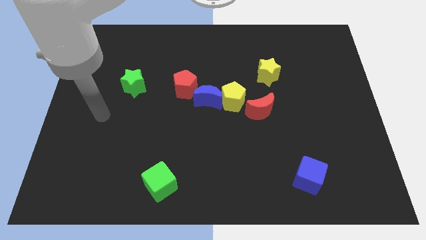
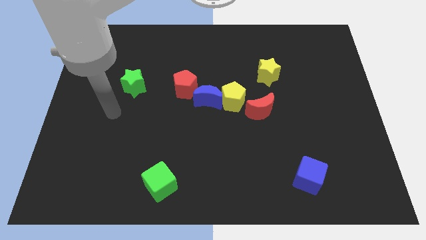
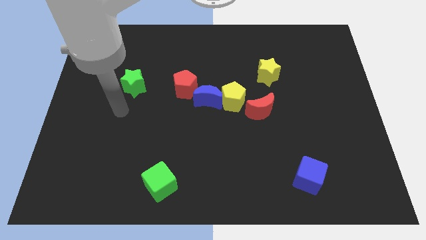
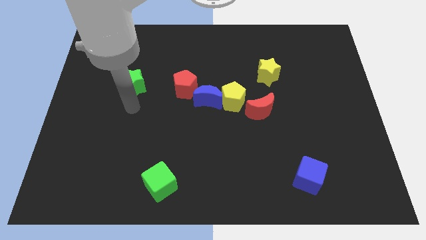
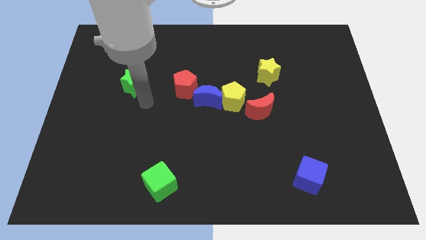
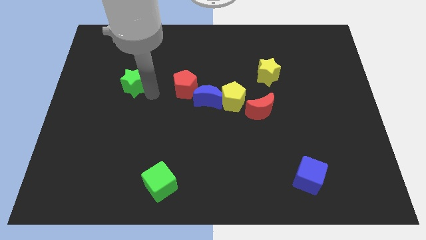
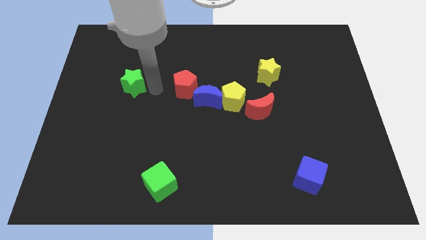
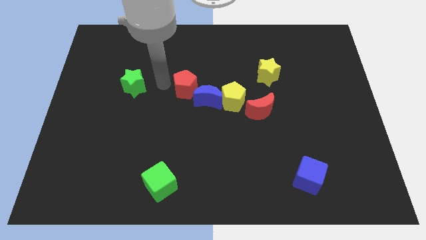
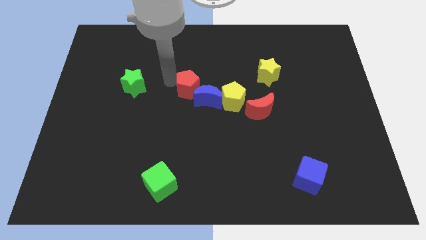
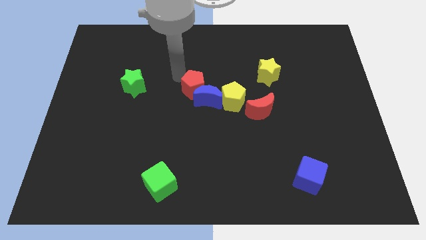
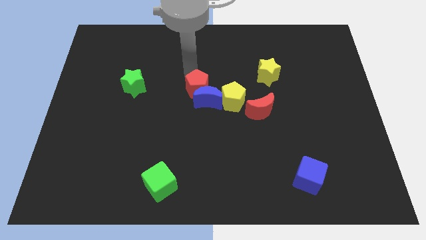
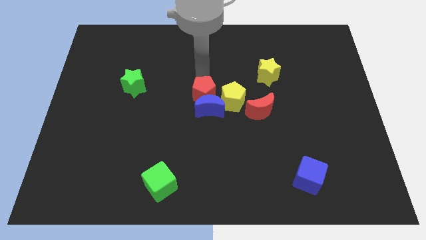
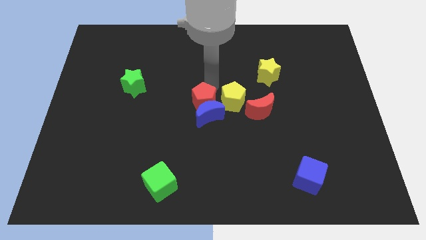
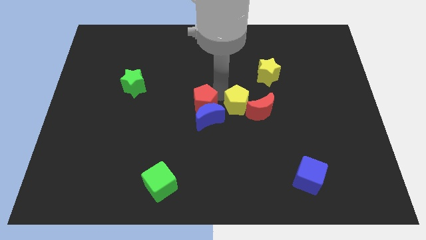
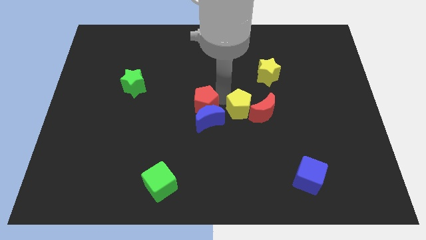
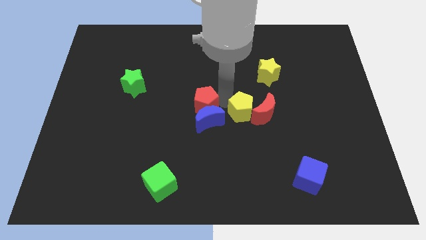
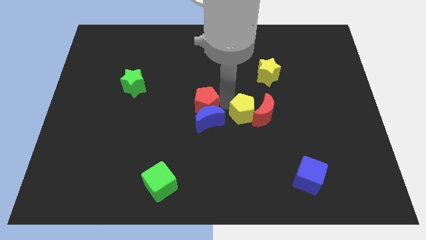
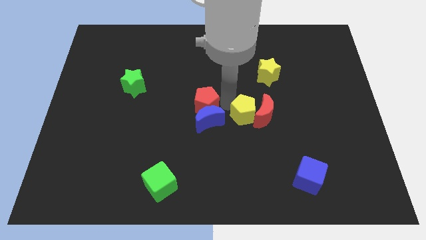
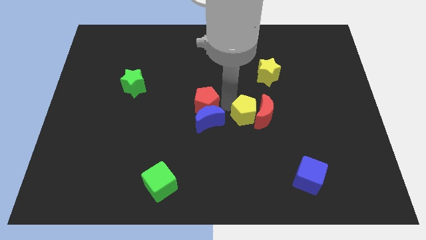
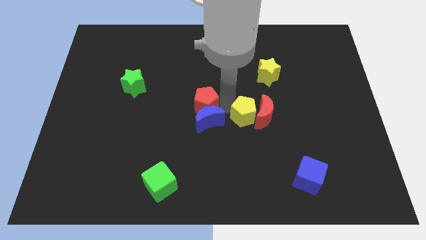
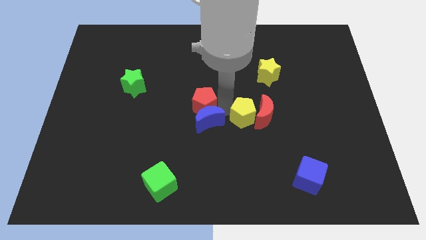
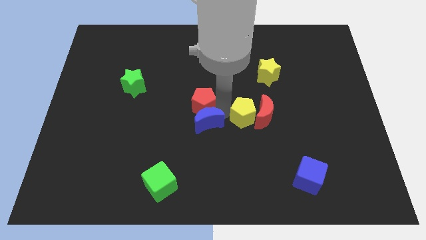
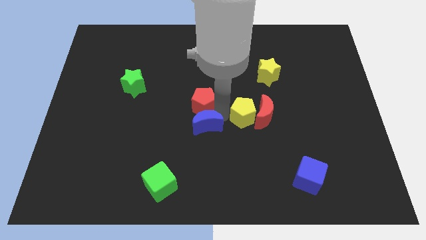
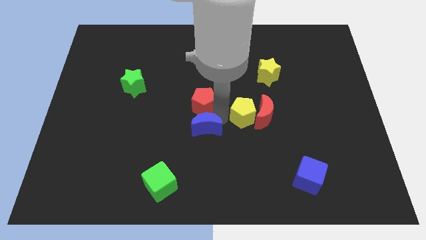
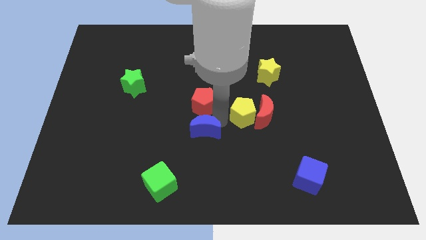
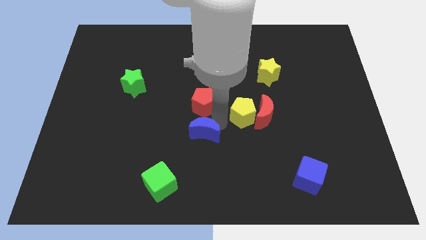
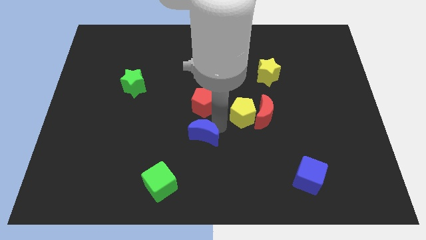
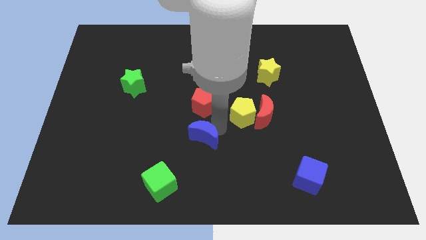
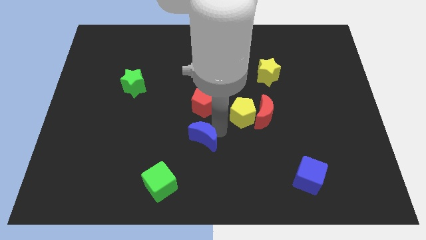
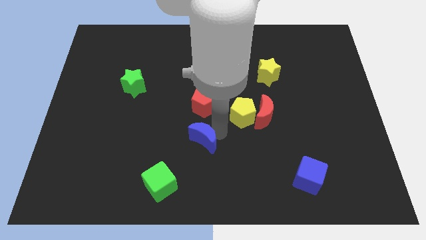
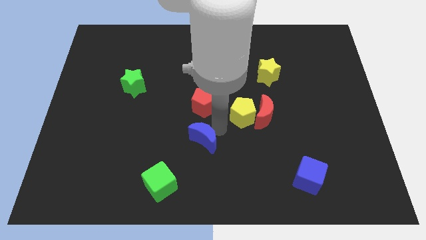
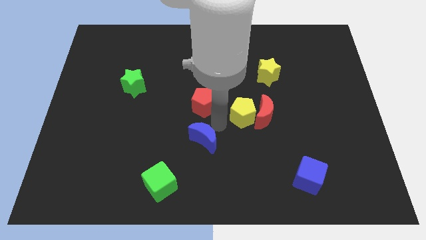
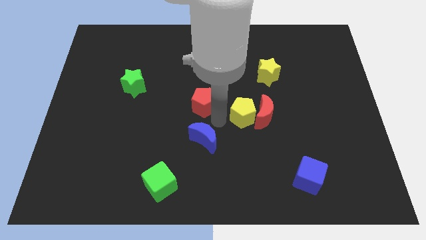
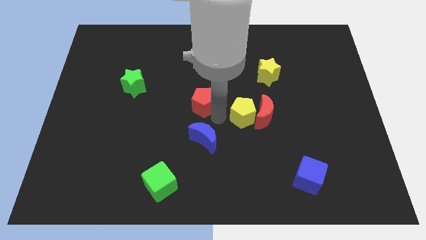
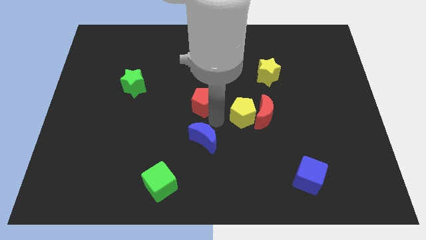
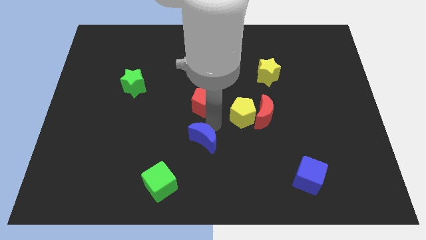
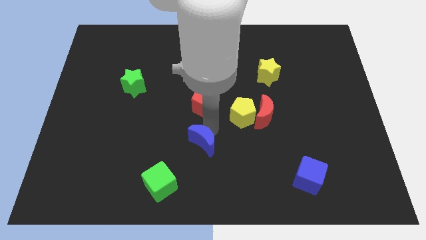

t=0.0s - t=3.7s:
move the blue moon away from the yellow pentagon and red pentagon

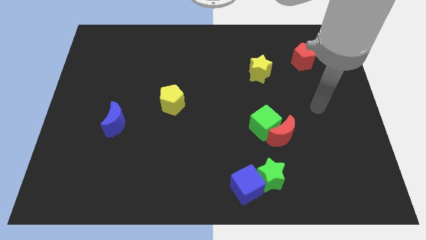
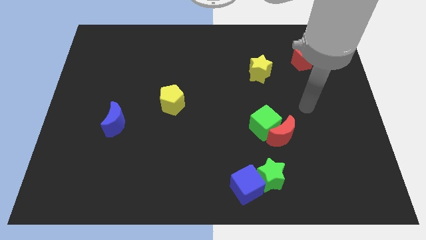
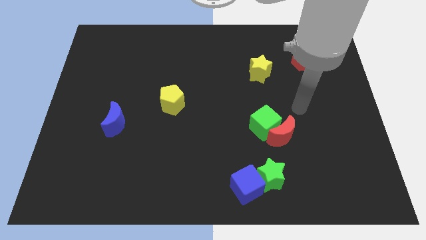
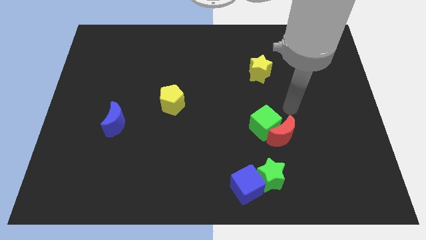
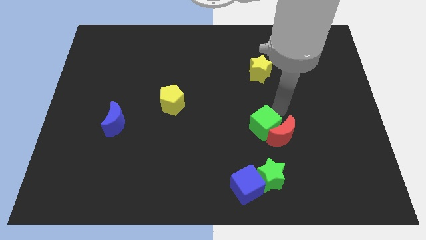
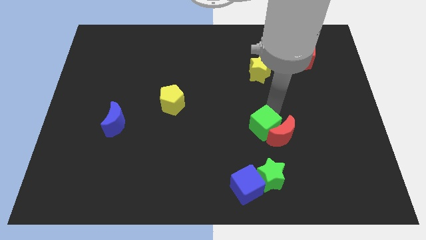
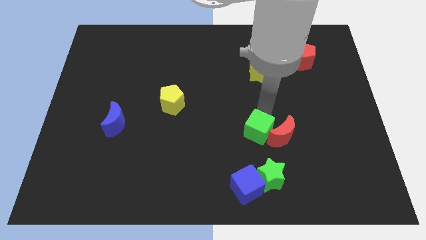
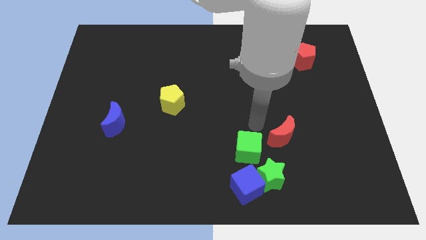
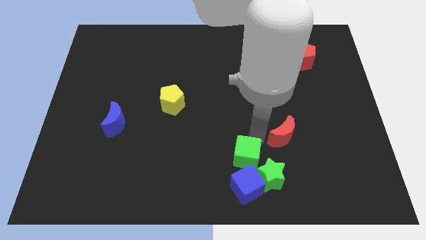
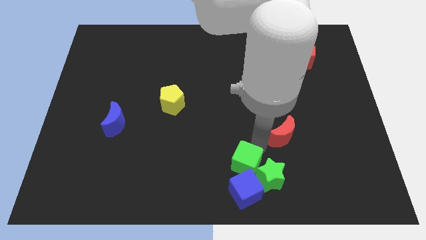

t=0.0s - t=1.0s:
separate the red moon from the green cube

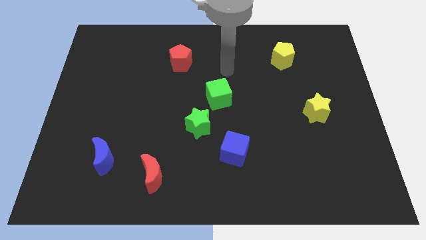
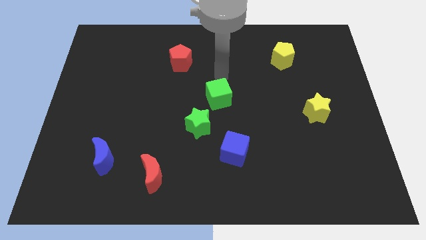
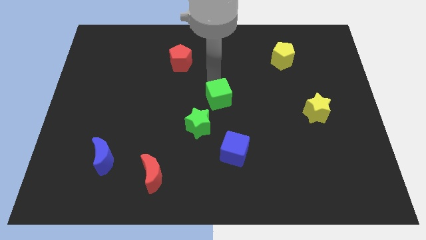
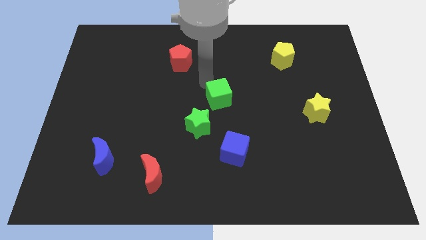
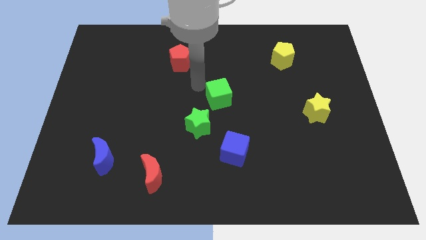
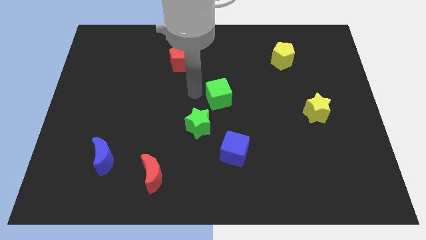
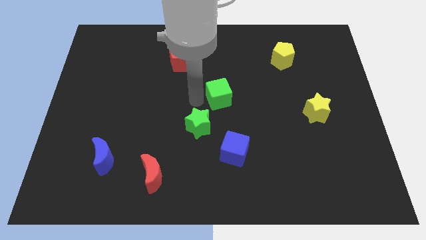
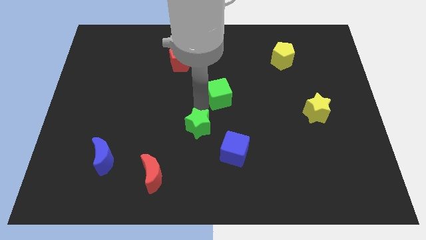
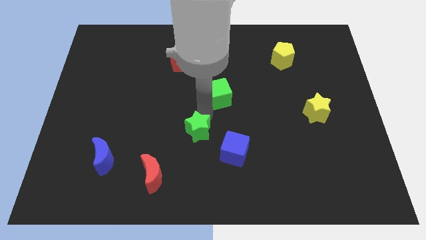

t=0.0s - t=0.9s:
move the green cube away from the green star

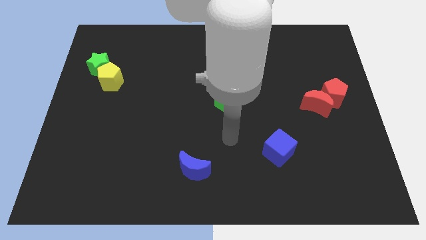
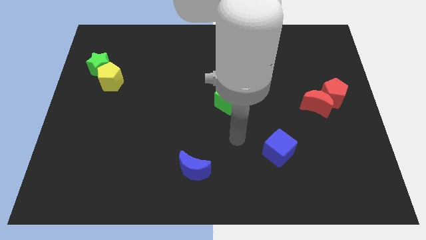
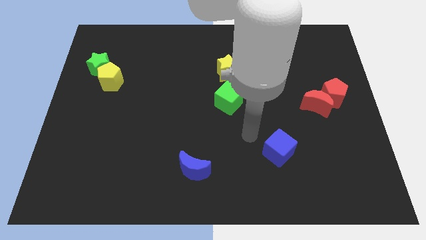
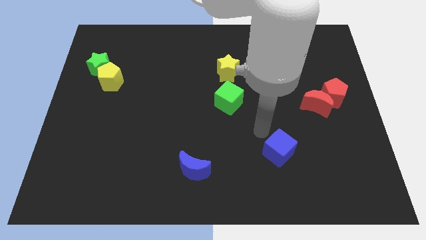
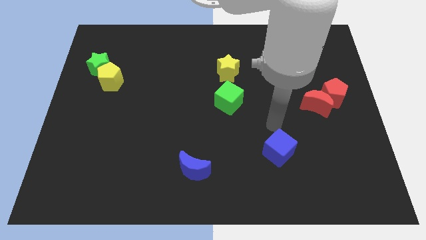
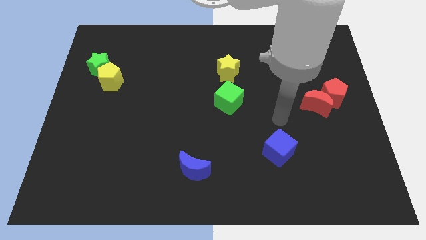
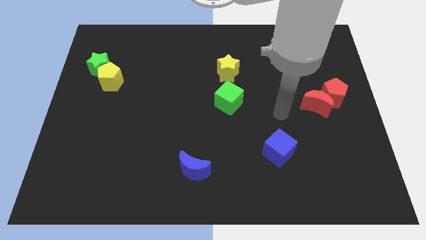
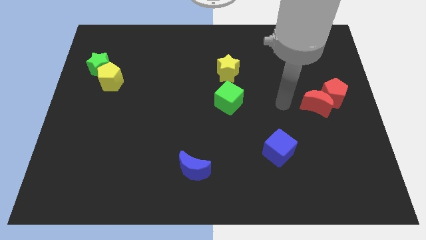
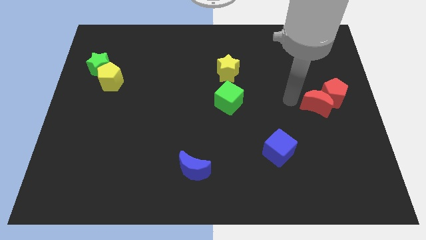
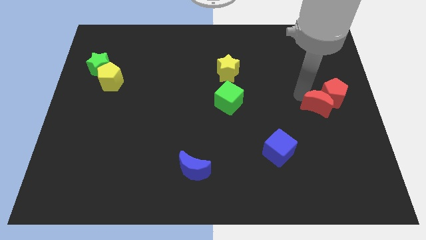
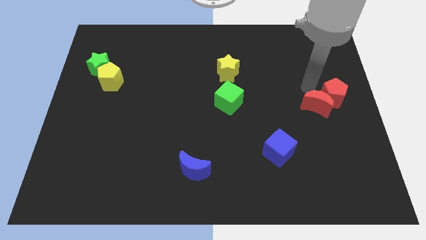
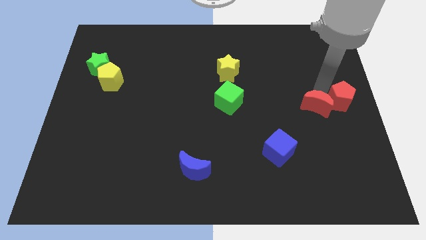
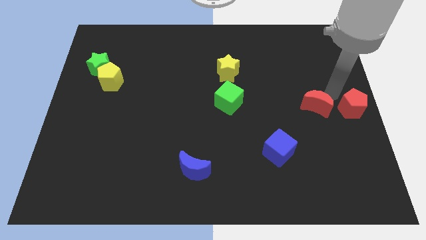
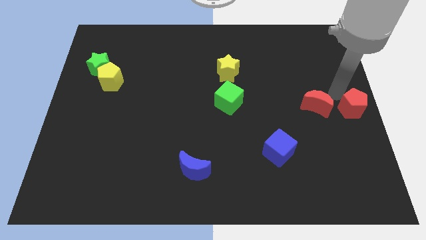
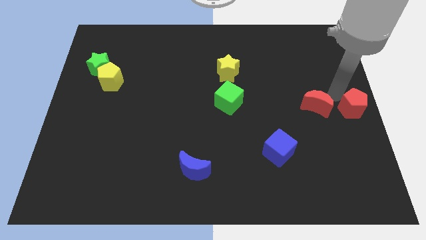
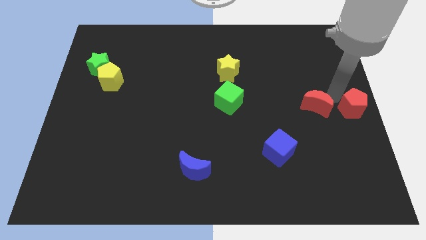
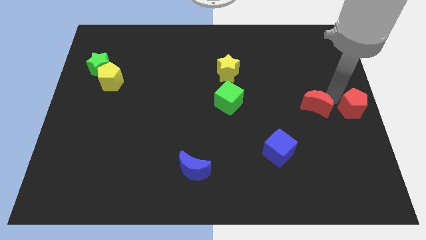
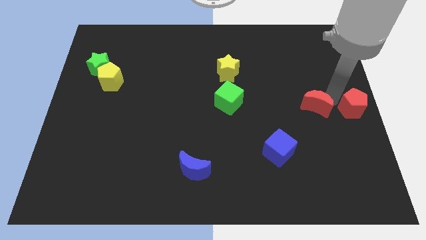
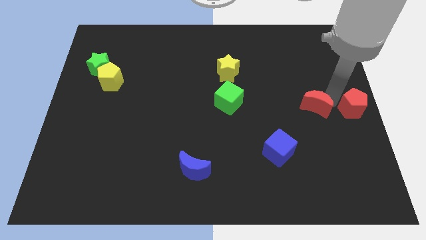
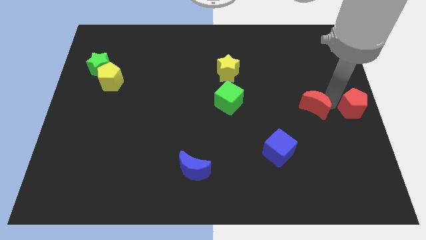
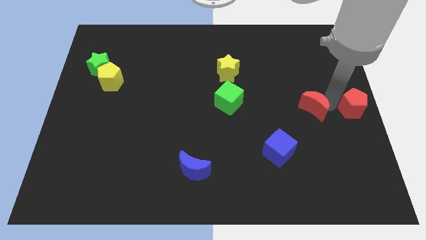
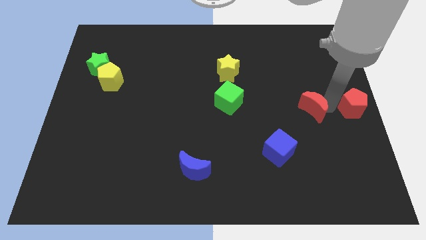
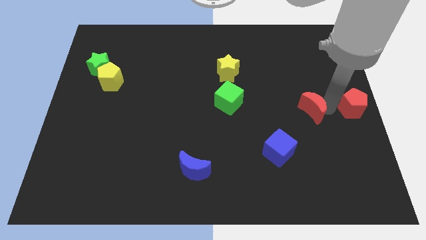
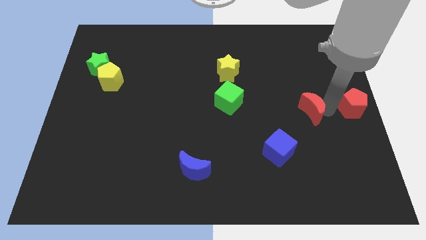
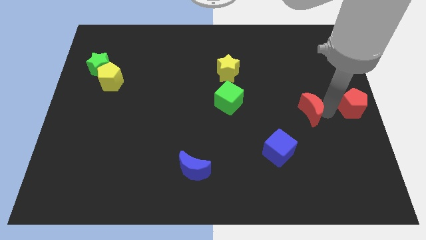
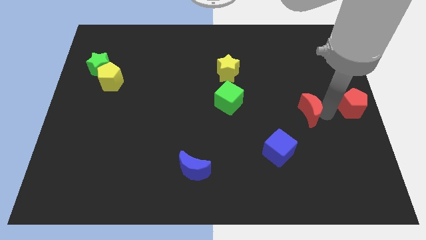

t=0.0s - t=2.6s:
move the red moon away from the red pentagon

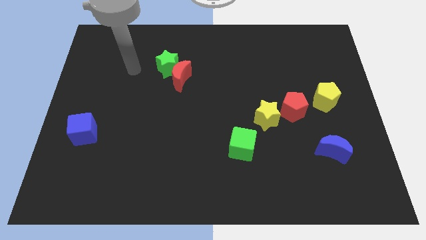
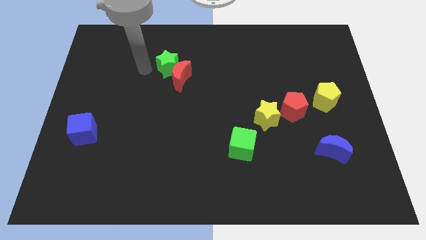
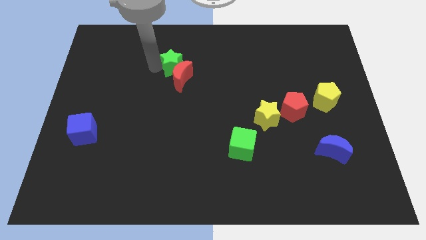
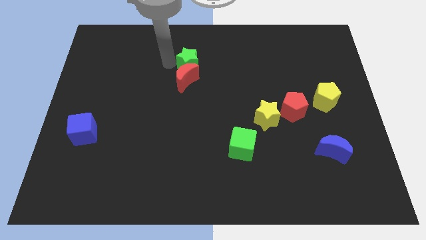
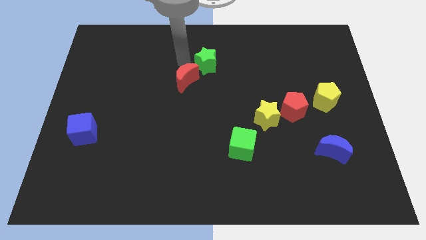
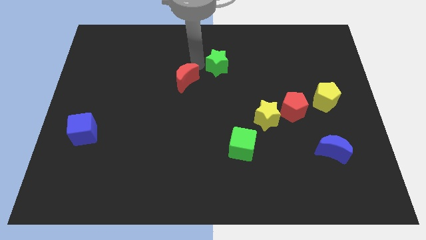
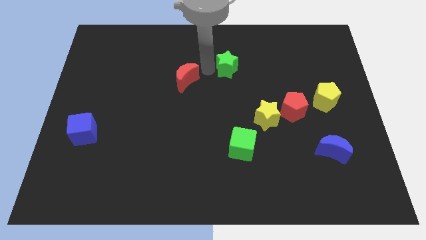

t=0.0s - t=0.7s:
pull the red moon apart from the green star

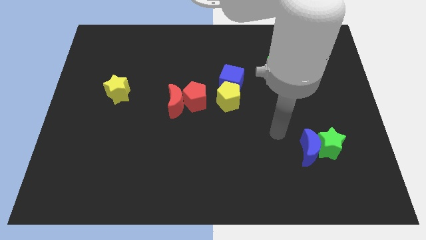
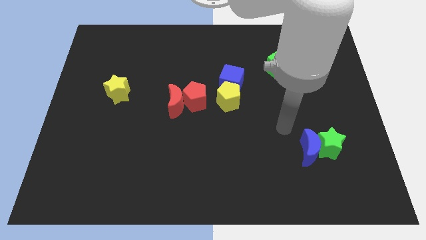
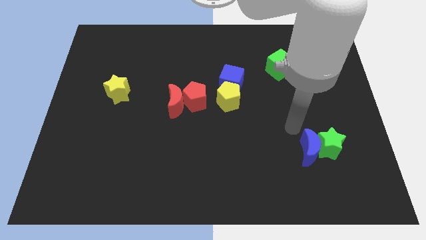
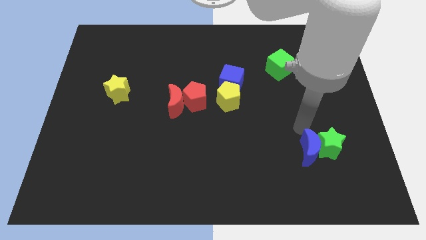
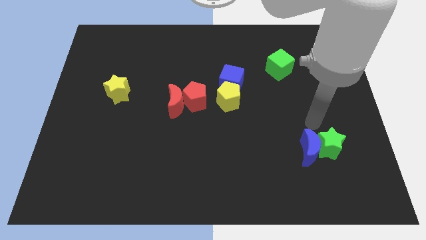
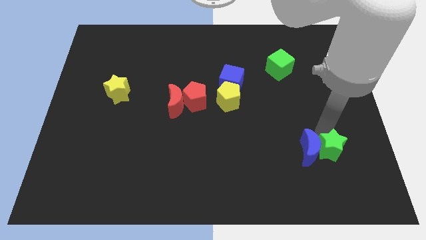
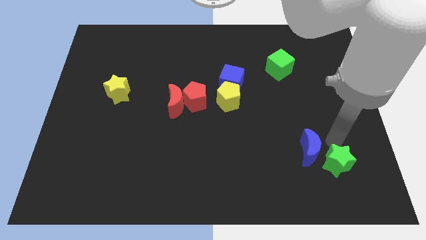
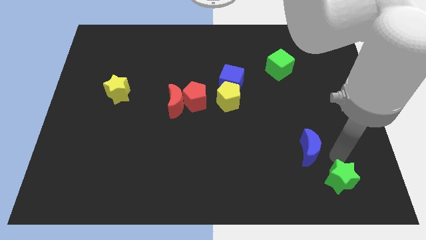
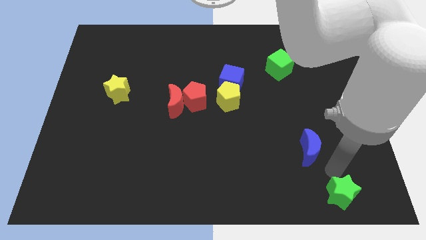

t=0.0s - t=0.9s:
separate the blue moon from the green star
